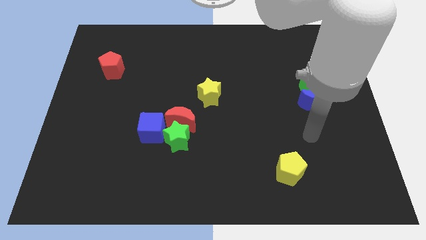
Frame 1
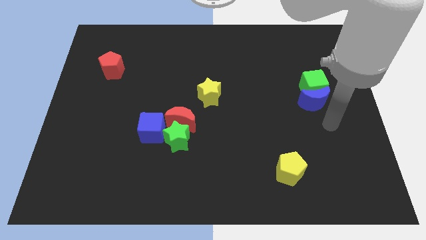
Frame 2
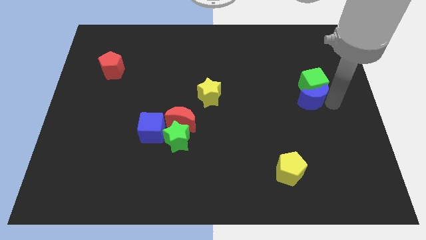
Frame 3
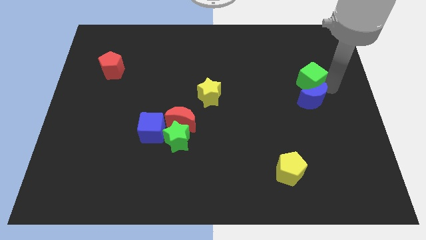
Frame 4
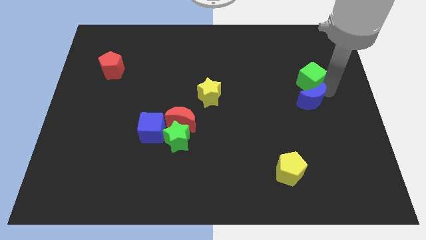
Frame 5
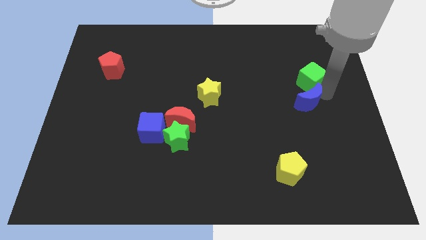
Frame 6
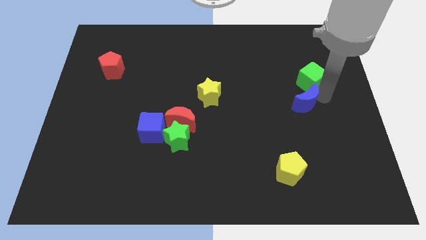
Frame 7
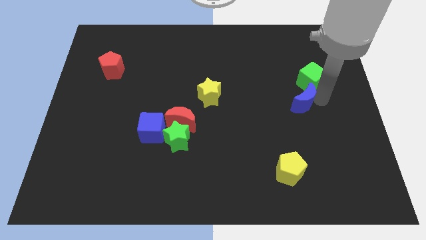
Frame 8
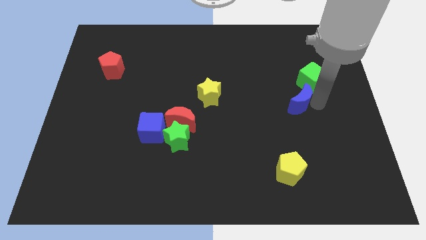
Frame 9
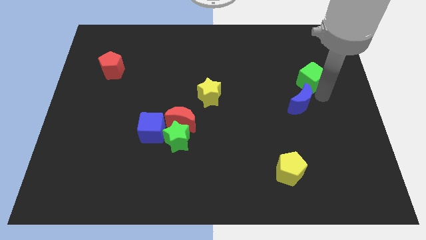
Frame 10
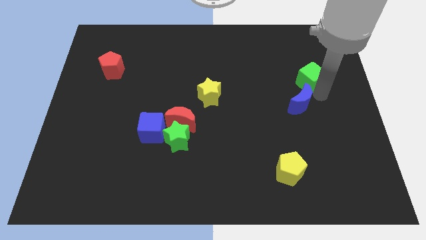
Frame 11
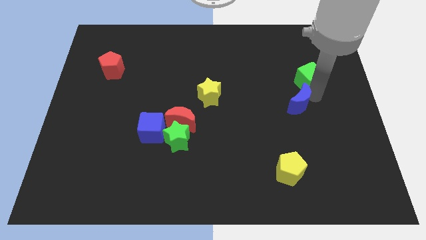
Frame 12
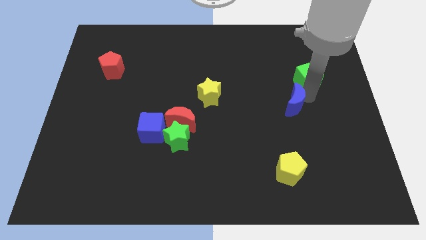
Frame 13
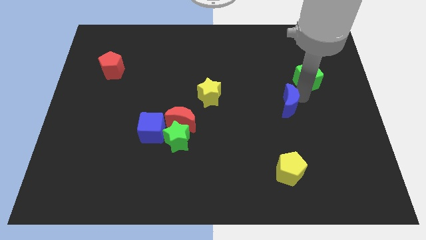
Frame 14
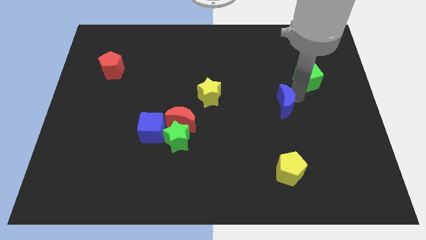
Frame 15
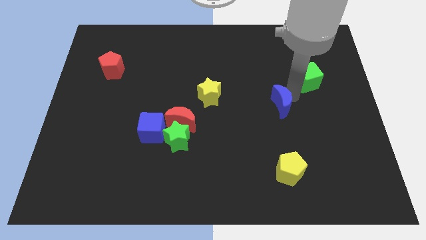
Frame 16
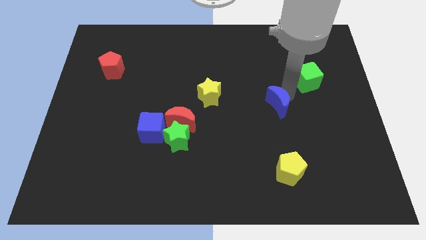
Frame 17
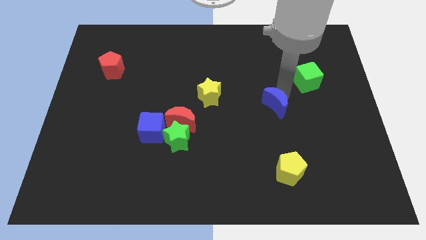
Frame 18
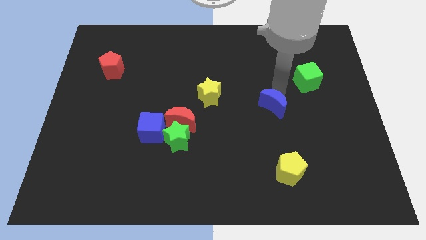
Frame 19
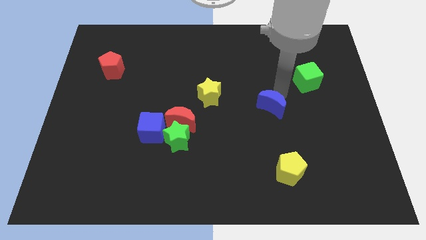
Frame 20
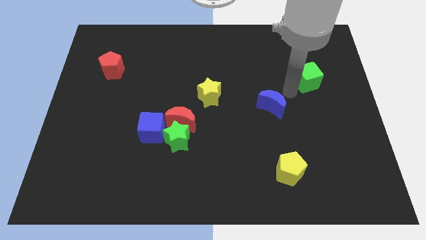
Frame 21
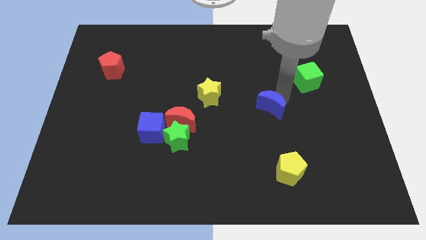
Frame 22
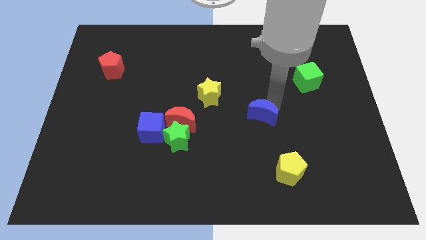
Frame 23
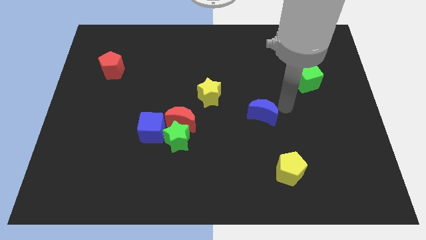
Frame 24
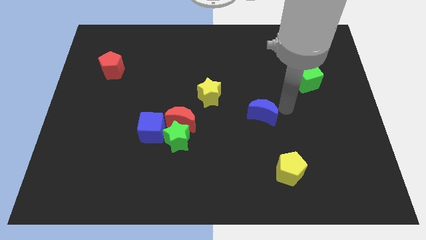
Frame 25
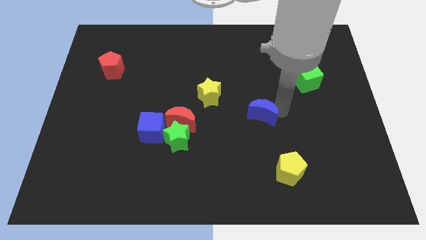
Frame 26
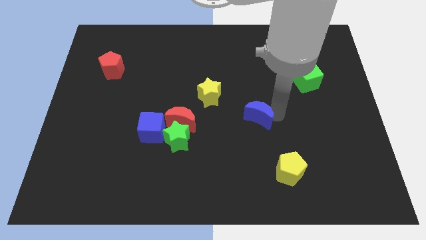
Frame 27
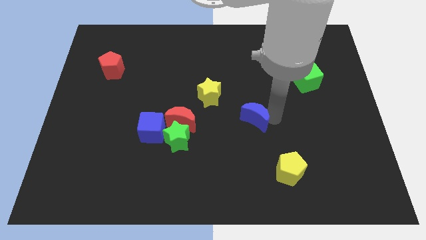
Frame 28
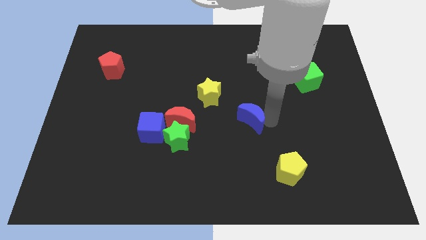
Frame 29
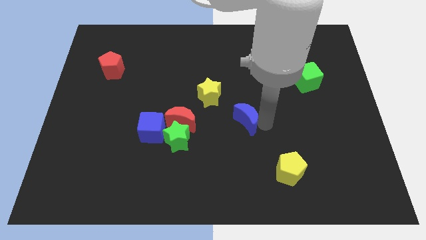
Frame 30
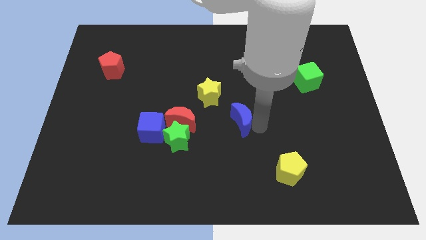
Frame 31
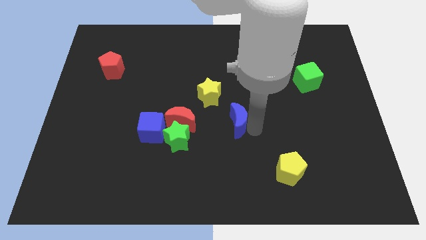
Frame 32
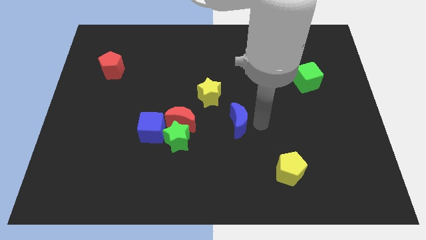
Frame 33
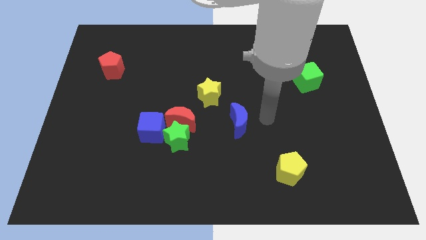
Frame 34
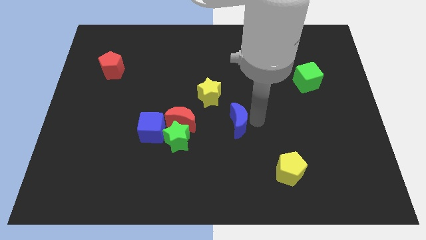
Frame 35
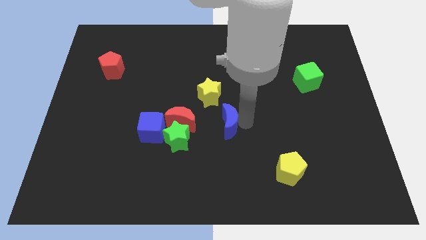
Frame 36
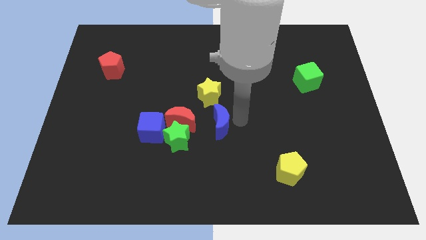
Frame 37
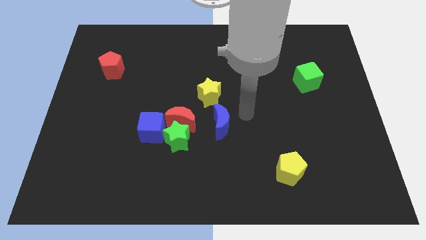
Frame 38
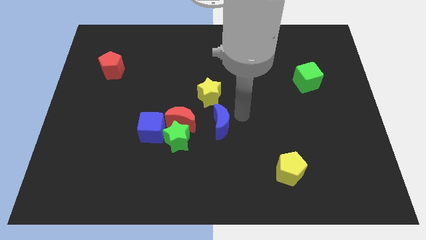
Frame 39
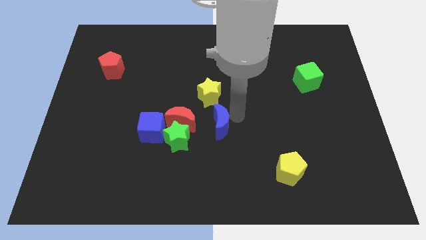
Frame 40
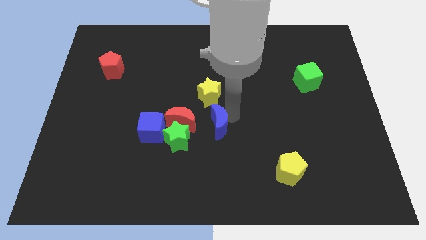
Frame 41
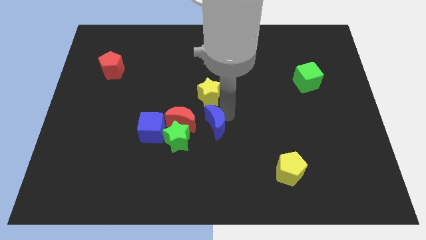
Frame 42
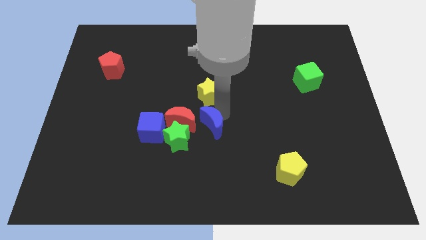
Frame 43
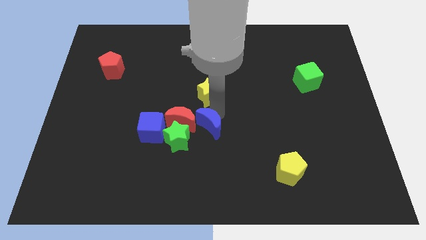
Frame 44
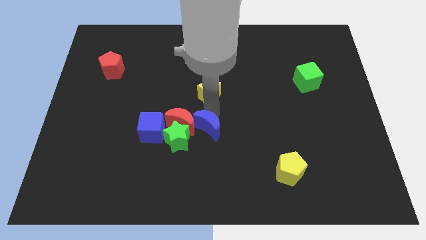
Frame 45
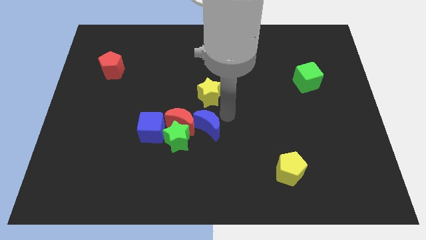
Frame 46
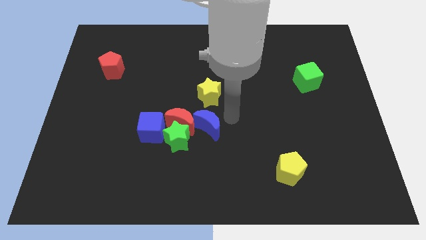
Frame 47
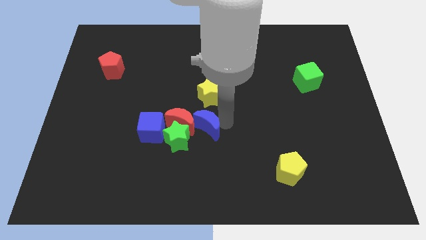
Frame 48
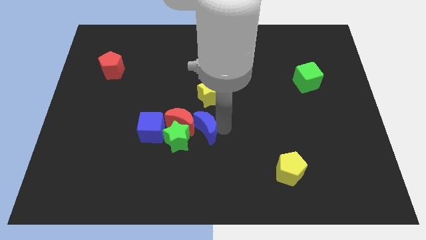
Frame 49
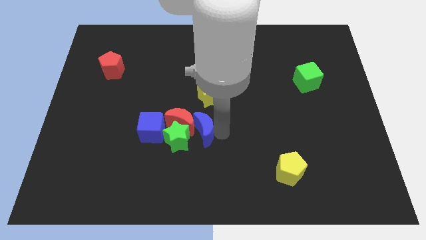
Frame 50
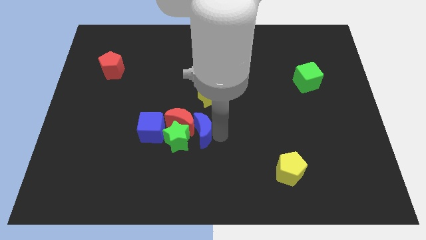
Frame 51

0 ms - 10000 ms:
push the blue moon next to the green star

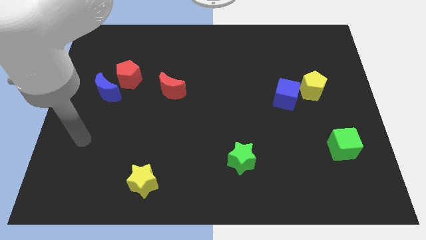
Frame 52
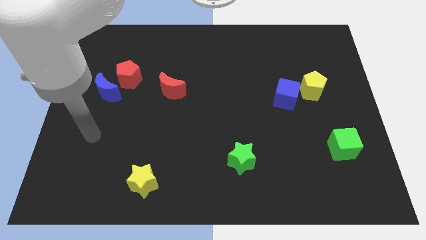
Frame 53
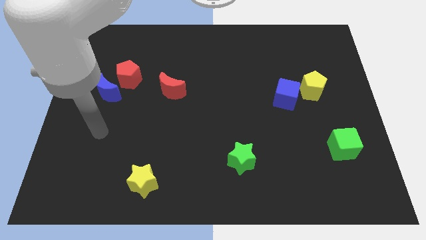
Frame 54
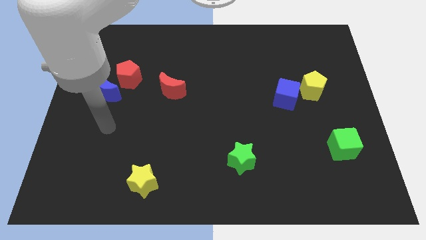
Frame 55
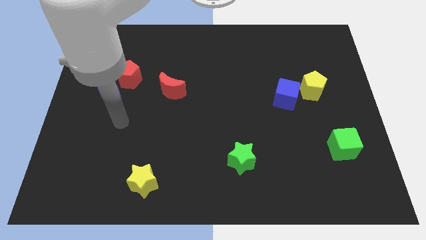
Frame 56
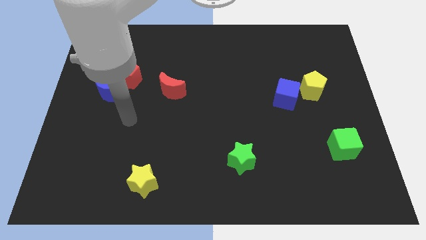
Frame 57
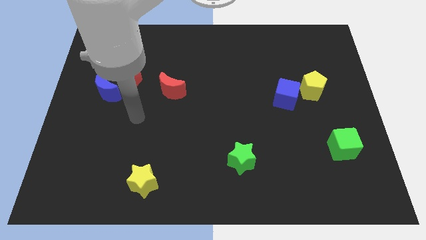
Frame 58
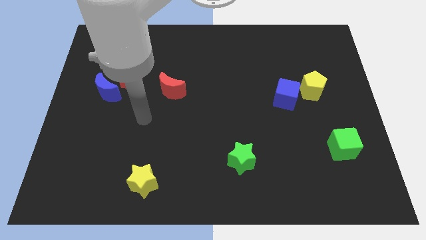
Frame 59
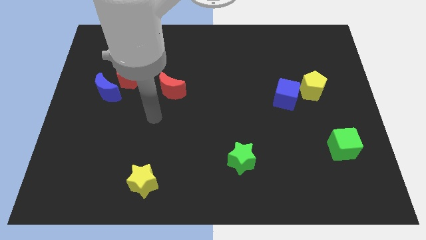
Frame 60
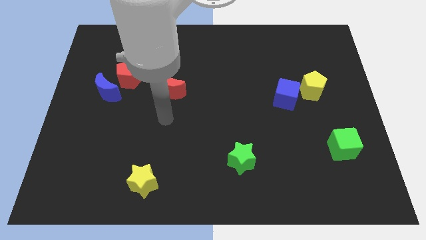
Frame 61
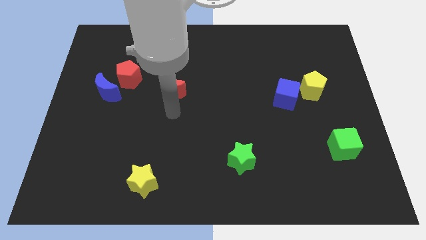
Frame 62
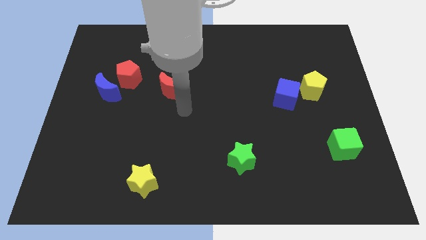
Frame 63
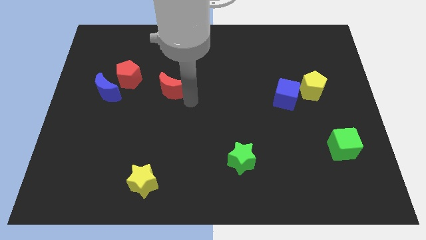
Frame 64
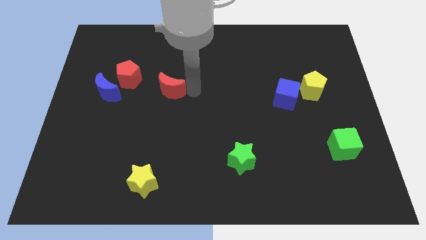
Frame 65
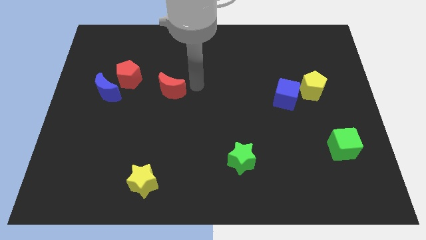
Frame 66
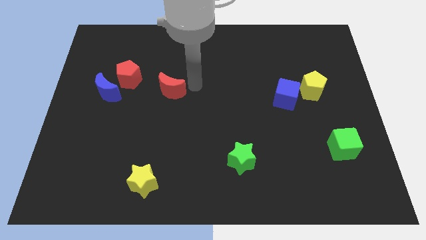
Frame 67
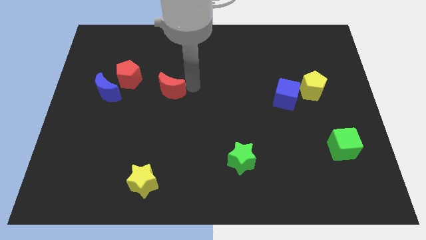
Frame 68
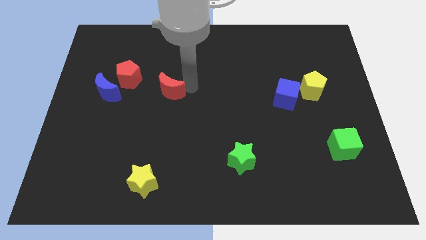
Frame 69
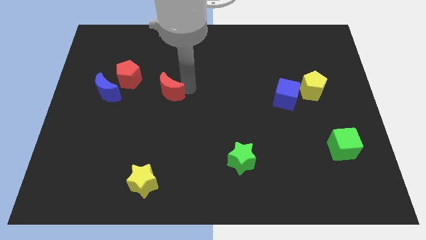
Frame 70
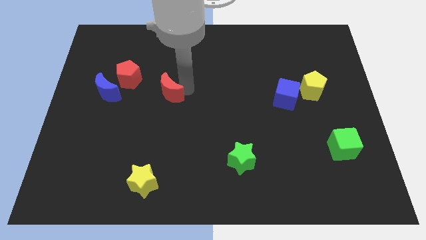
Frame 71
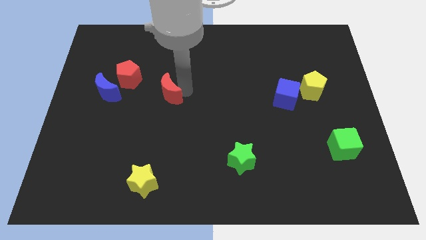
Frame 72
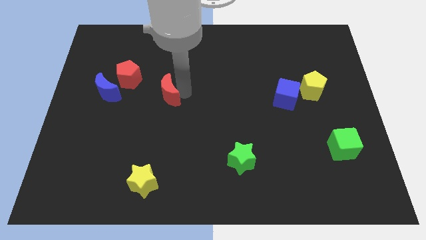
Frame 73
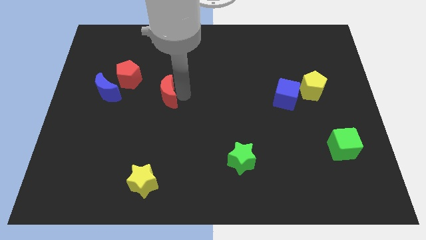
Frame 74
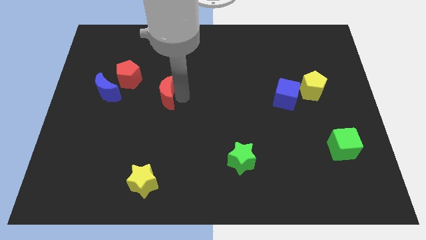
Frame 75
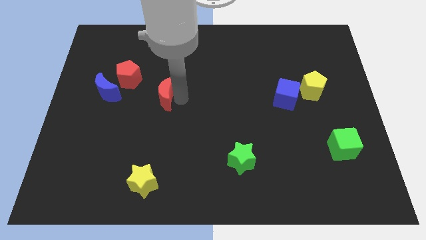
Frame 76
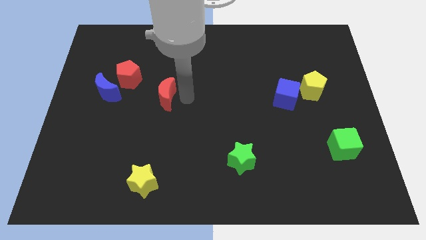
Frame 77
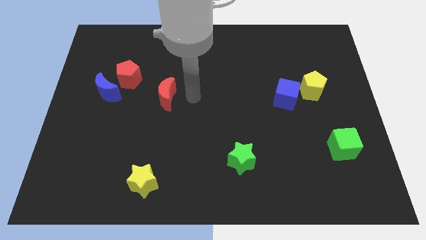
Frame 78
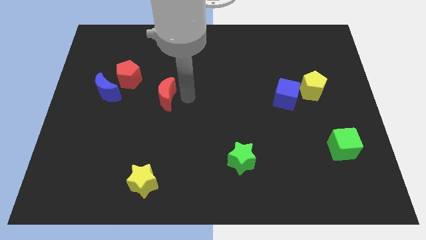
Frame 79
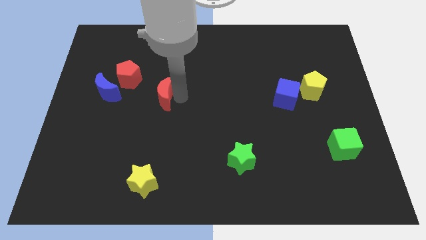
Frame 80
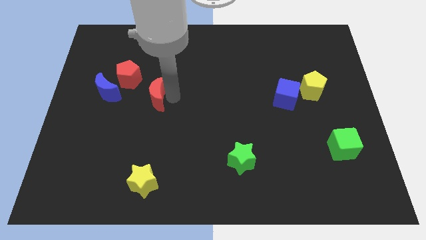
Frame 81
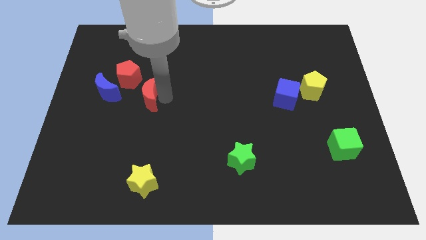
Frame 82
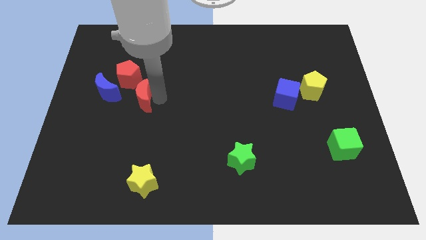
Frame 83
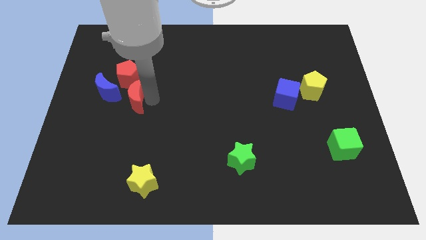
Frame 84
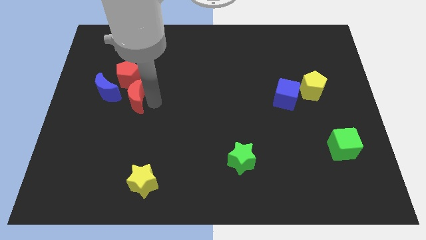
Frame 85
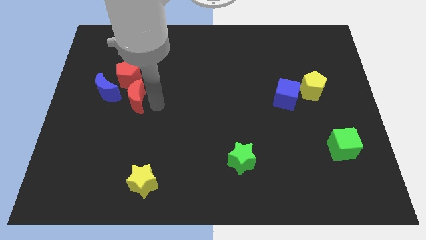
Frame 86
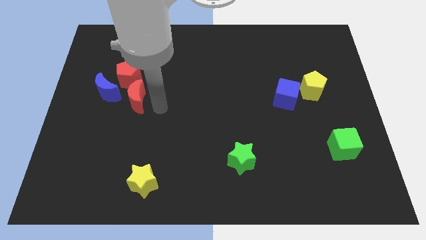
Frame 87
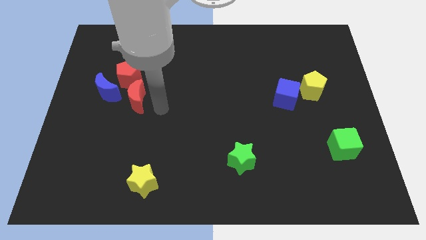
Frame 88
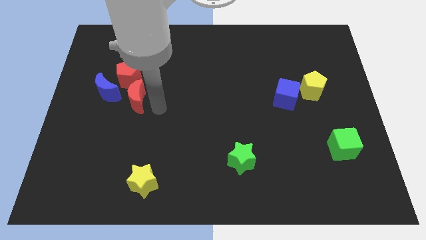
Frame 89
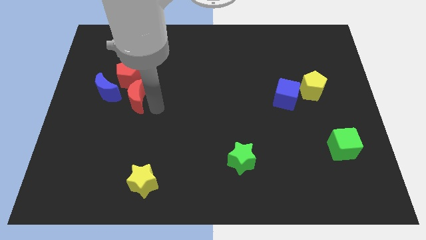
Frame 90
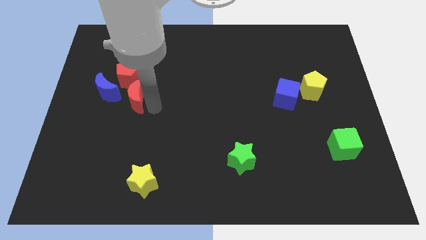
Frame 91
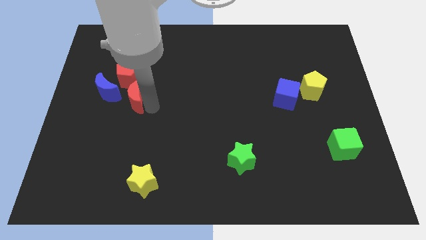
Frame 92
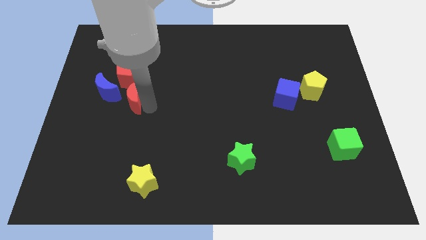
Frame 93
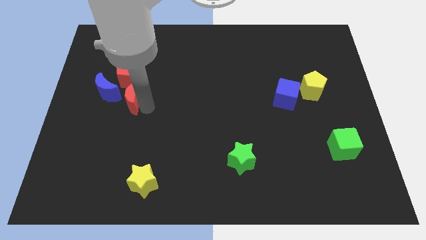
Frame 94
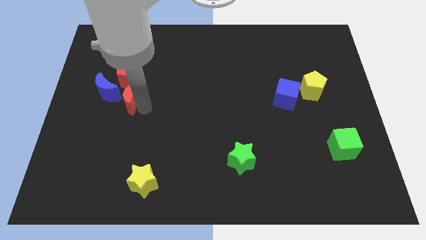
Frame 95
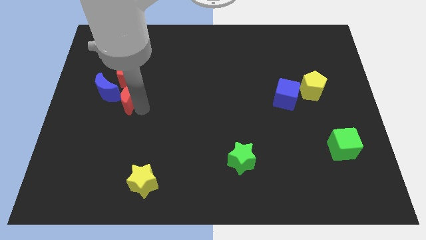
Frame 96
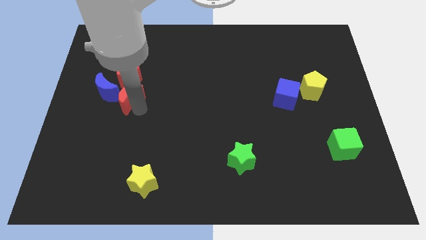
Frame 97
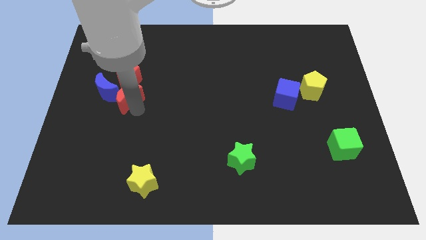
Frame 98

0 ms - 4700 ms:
slide the red moon towards the blue moon
